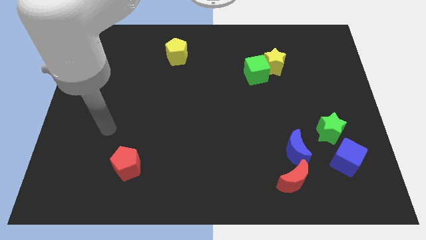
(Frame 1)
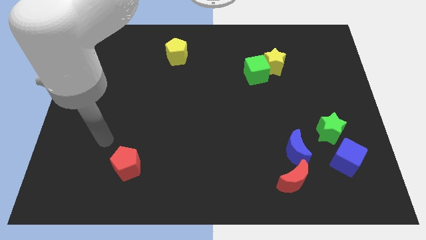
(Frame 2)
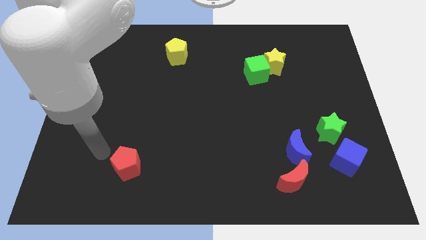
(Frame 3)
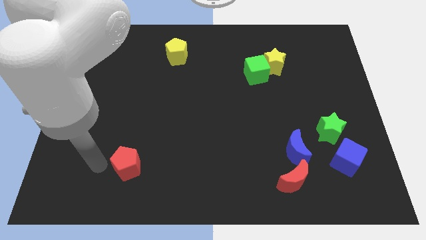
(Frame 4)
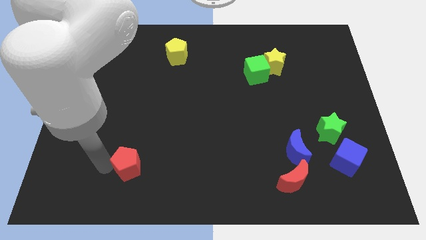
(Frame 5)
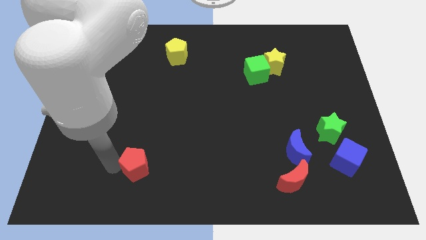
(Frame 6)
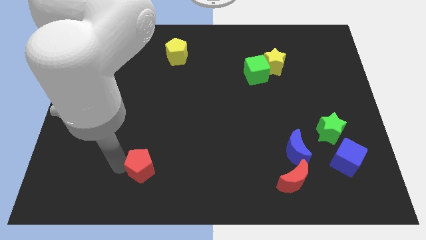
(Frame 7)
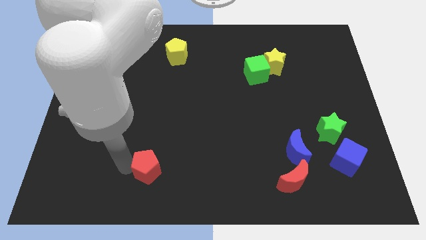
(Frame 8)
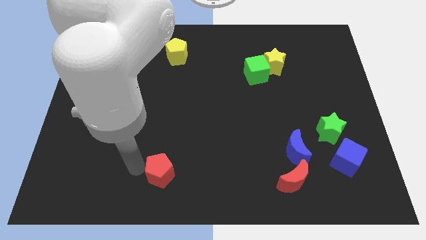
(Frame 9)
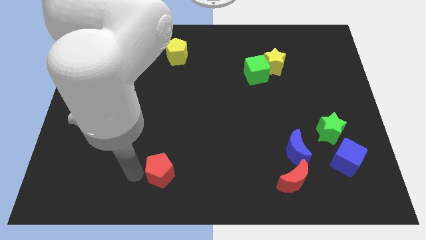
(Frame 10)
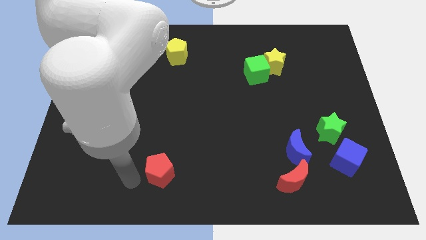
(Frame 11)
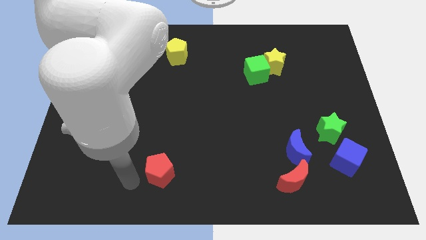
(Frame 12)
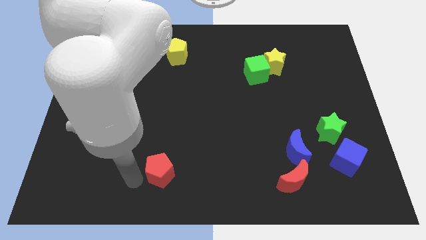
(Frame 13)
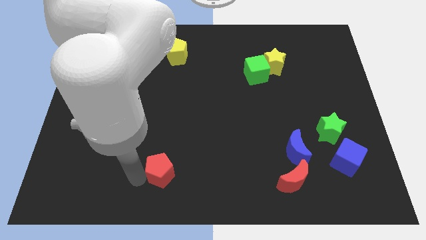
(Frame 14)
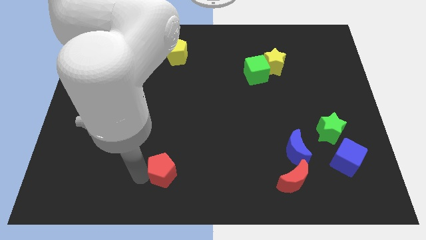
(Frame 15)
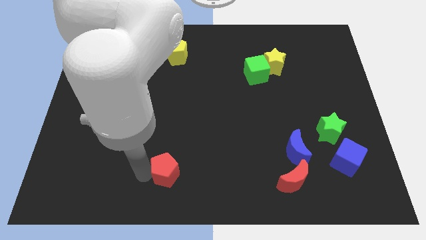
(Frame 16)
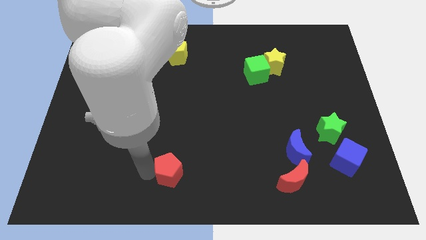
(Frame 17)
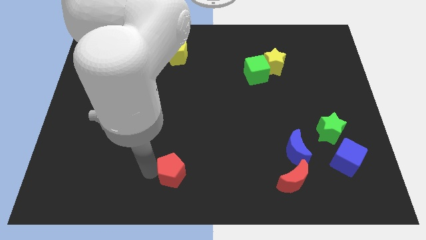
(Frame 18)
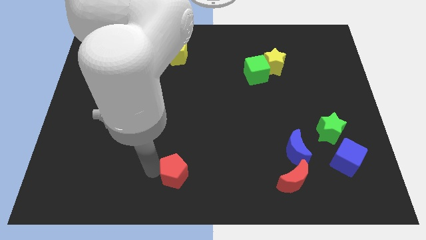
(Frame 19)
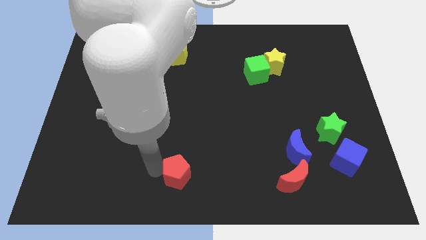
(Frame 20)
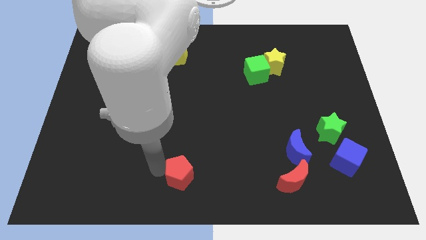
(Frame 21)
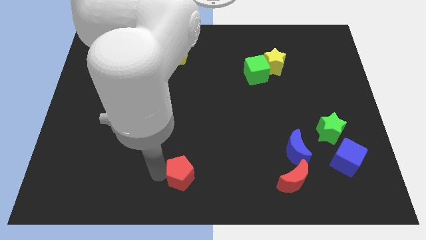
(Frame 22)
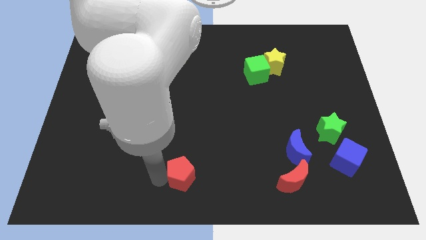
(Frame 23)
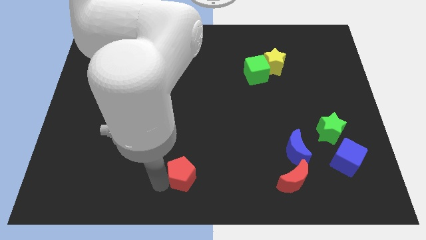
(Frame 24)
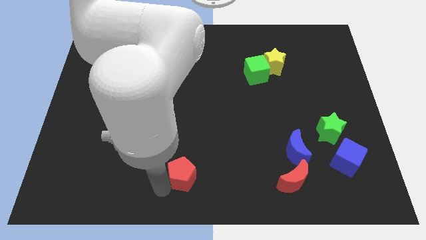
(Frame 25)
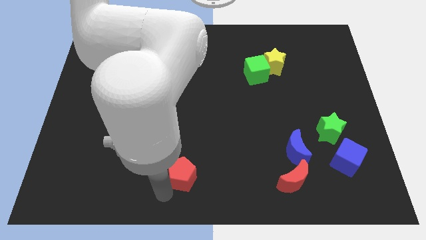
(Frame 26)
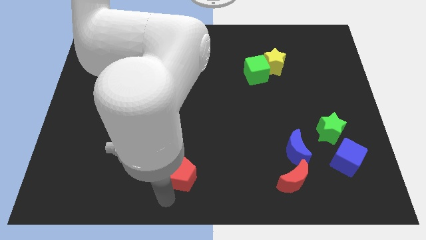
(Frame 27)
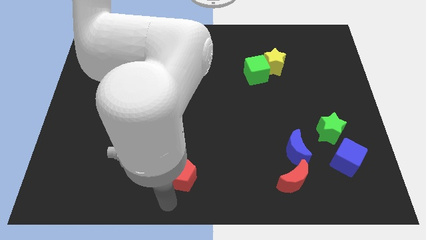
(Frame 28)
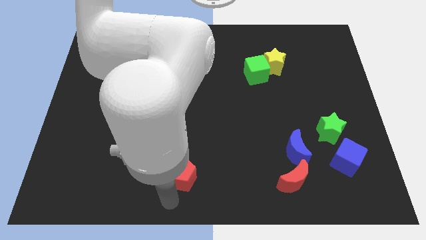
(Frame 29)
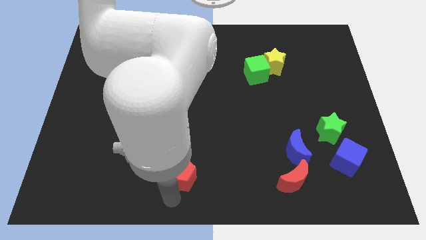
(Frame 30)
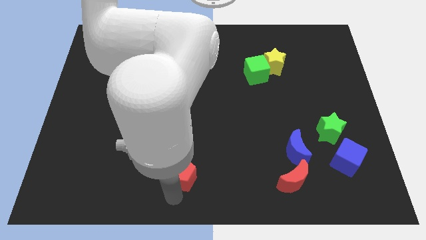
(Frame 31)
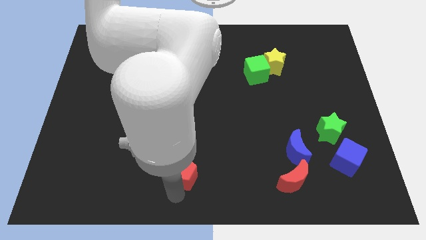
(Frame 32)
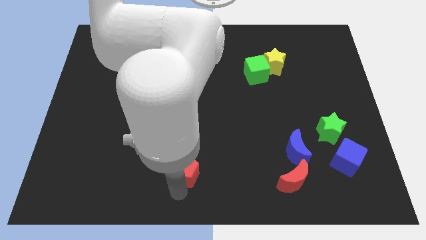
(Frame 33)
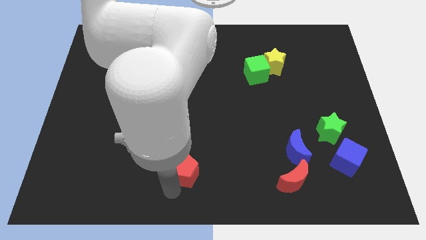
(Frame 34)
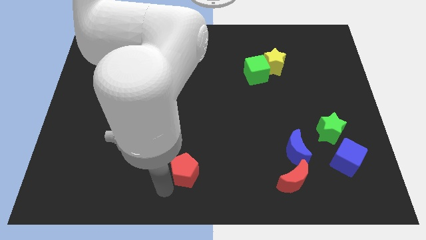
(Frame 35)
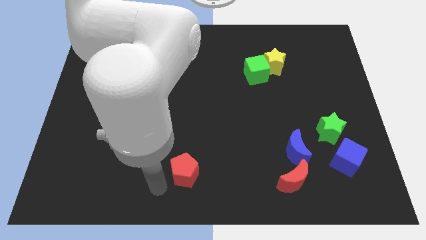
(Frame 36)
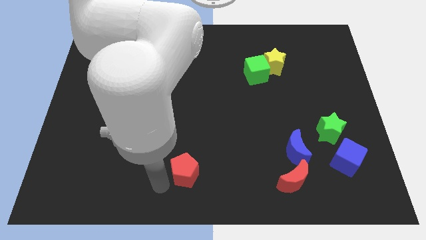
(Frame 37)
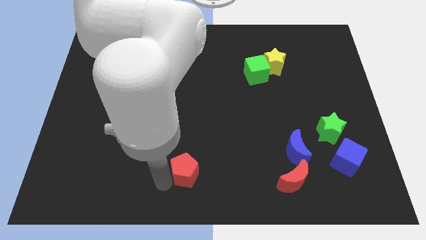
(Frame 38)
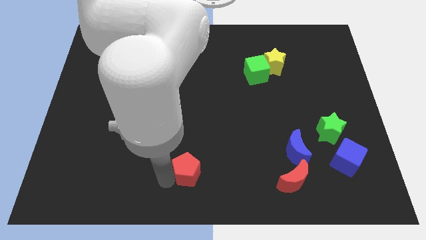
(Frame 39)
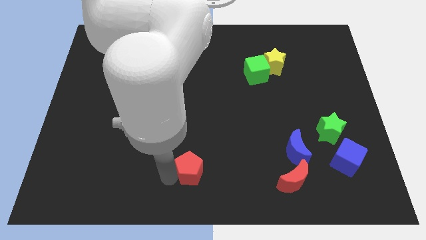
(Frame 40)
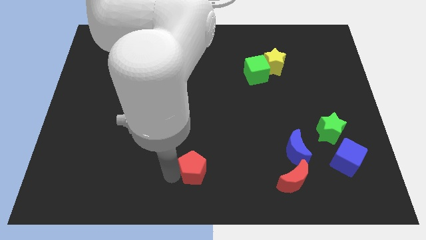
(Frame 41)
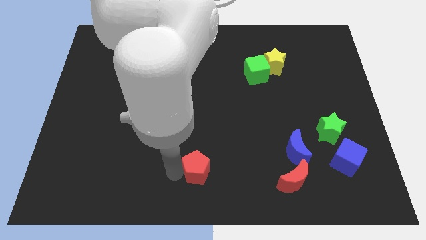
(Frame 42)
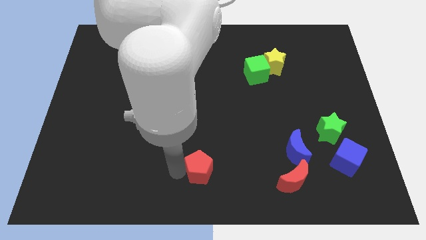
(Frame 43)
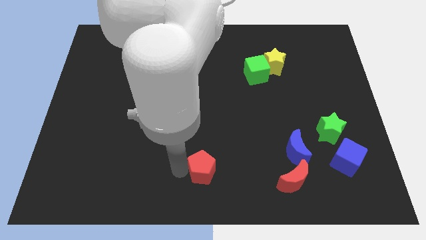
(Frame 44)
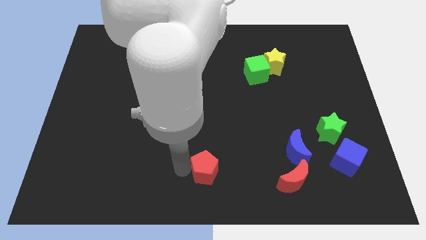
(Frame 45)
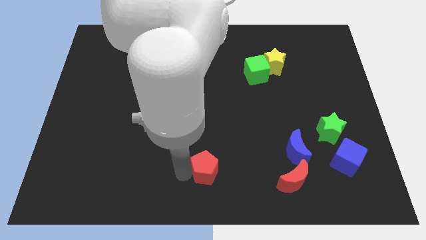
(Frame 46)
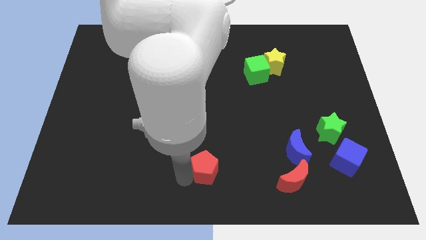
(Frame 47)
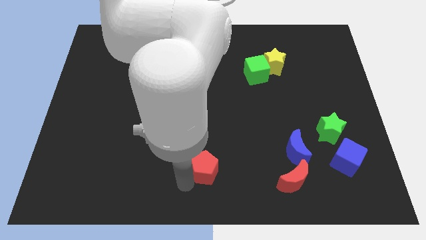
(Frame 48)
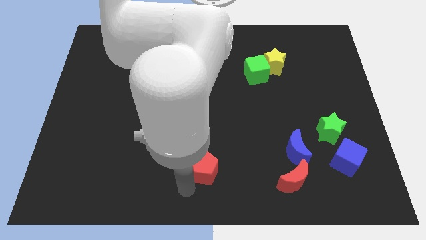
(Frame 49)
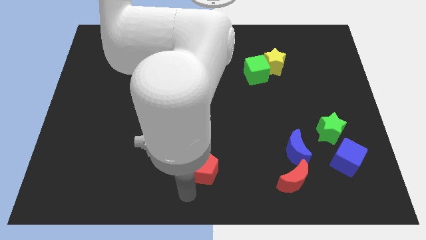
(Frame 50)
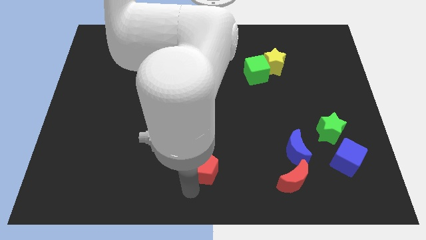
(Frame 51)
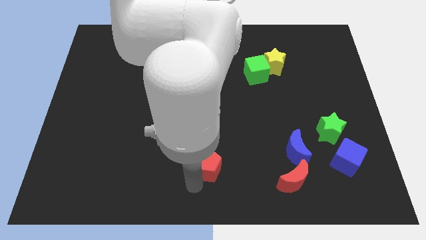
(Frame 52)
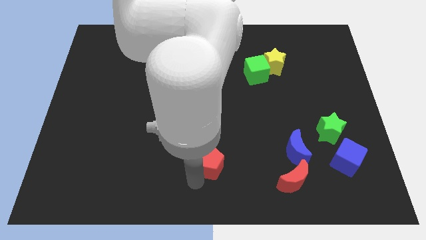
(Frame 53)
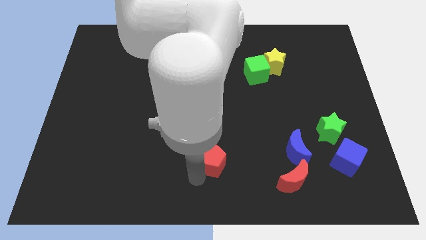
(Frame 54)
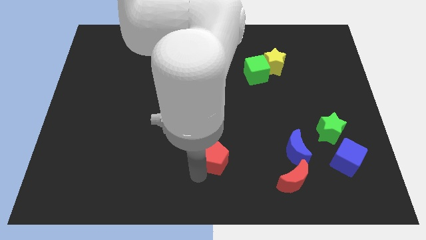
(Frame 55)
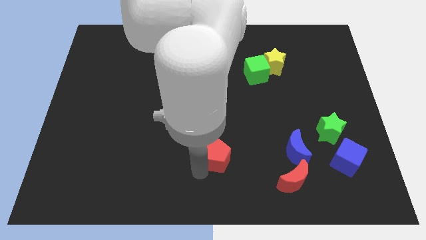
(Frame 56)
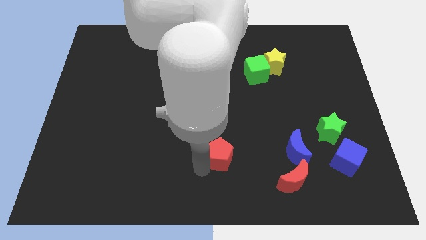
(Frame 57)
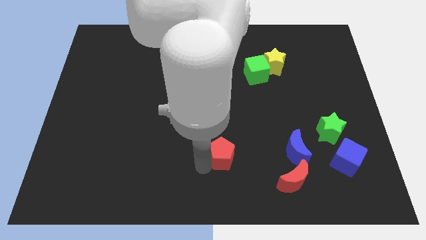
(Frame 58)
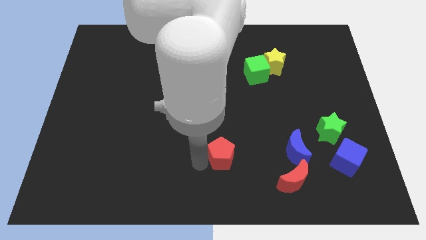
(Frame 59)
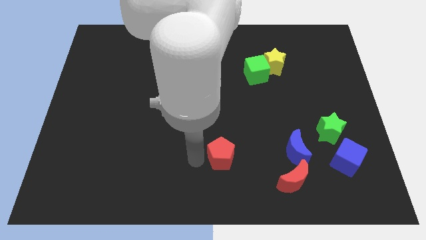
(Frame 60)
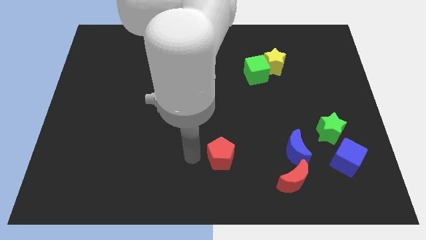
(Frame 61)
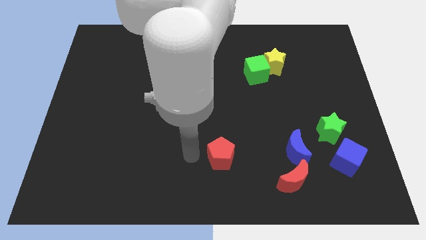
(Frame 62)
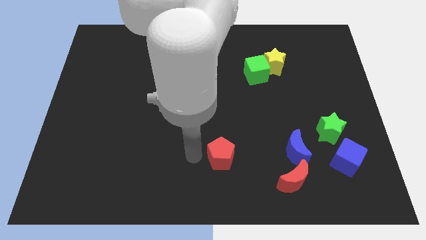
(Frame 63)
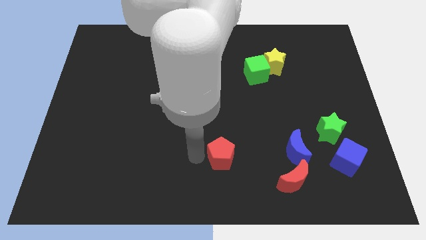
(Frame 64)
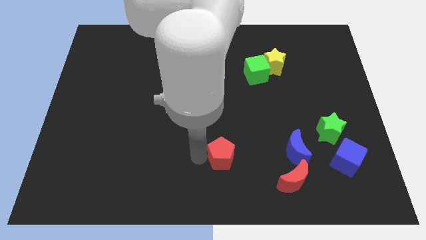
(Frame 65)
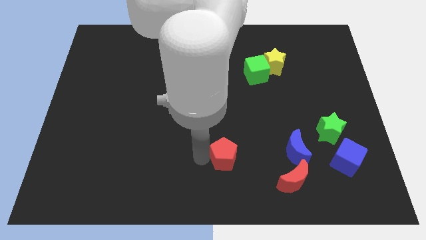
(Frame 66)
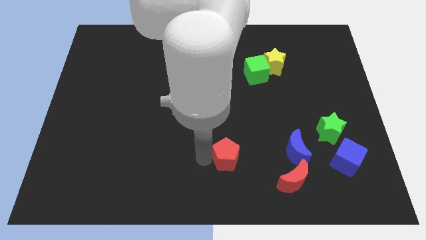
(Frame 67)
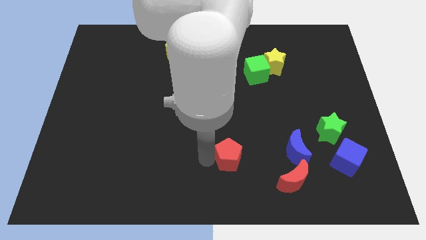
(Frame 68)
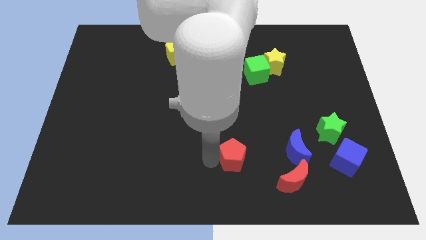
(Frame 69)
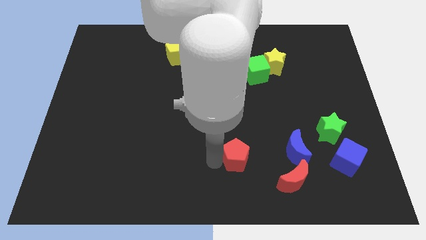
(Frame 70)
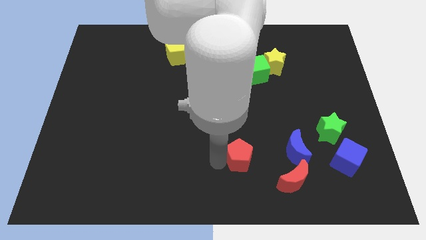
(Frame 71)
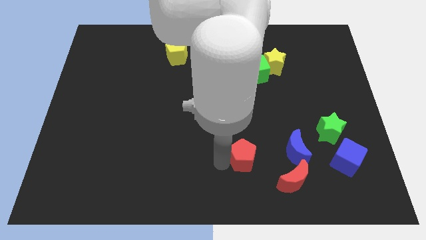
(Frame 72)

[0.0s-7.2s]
move the red pentagon diagonally up and to the left of the red moon
